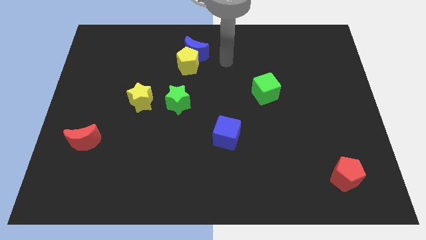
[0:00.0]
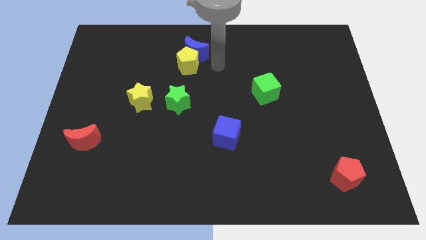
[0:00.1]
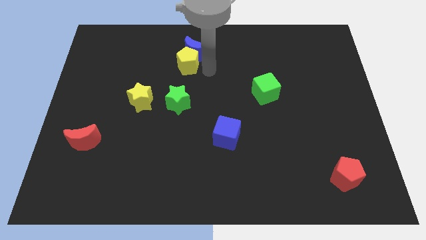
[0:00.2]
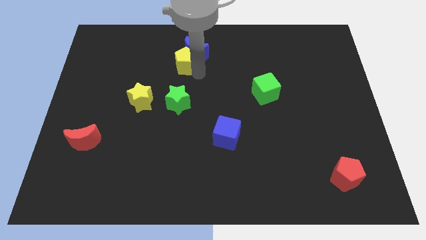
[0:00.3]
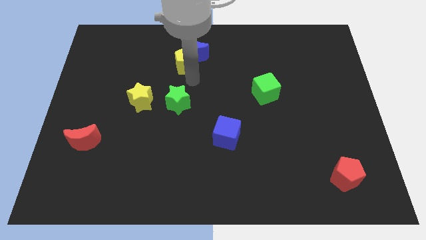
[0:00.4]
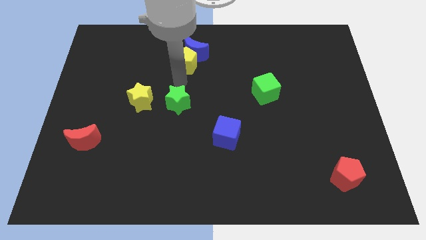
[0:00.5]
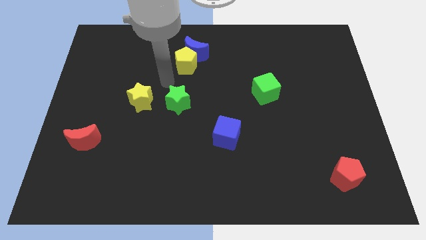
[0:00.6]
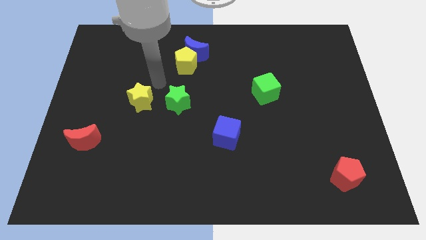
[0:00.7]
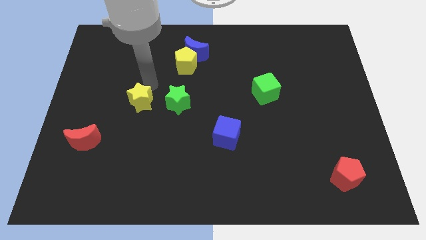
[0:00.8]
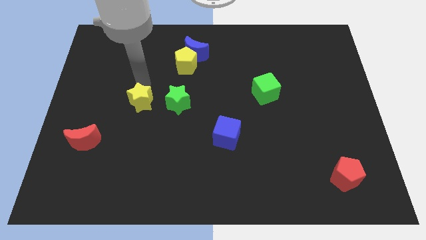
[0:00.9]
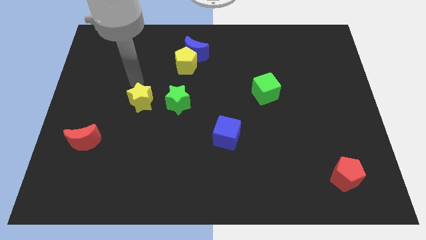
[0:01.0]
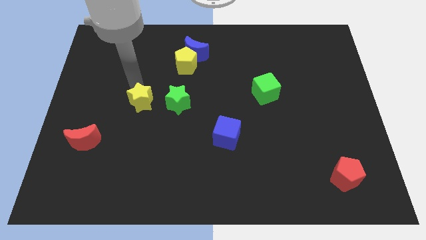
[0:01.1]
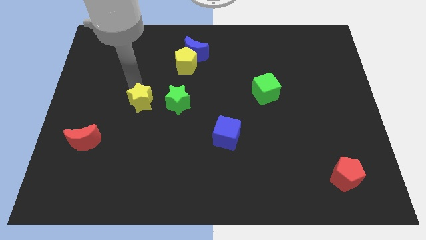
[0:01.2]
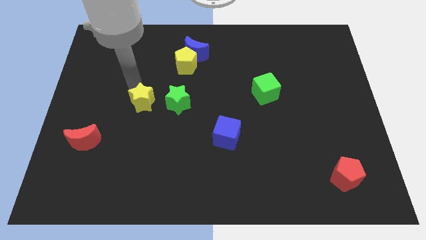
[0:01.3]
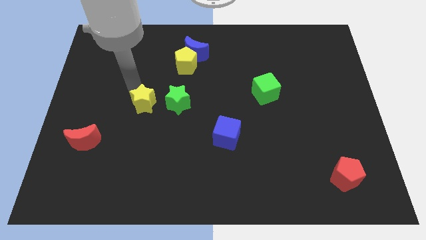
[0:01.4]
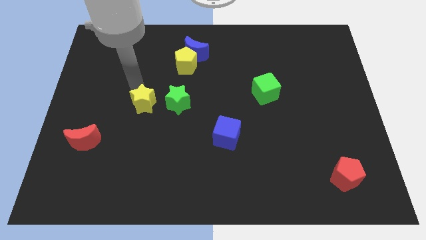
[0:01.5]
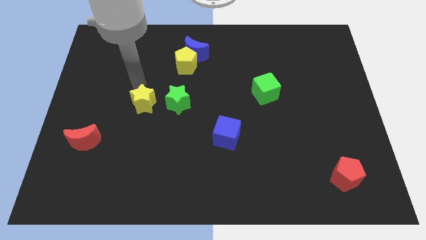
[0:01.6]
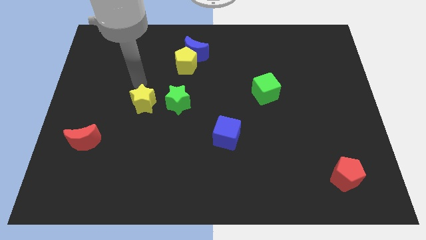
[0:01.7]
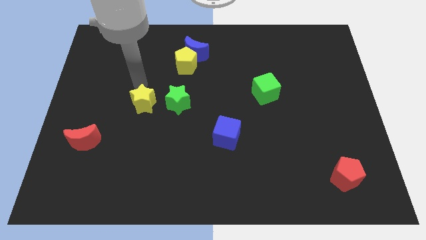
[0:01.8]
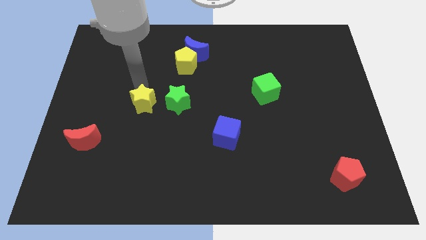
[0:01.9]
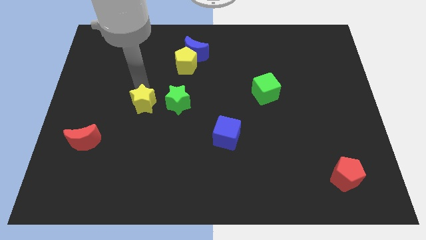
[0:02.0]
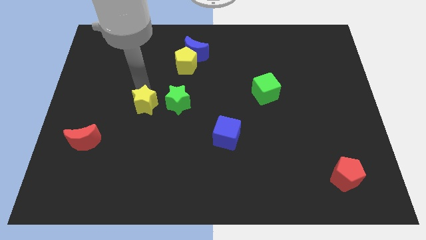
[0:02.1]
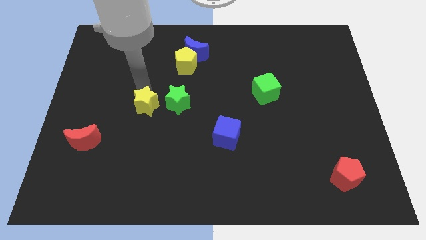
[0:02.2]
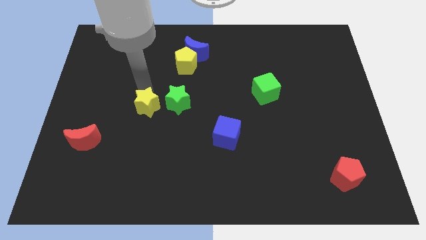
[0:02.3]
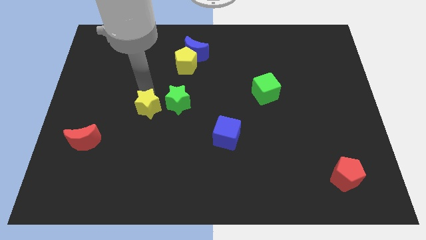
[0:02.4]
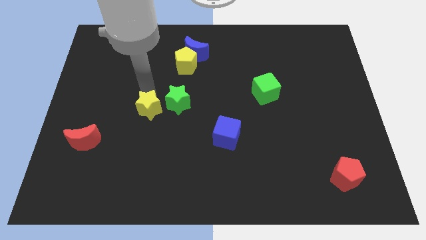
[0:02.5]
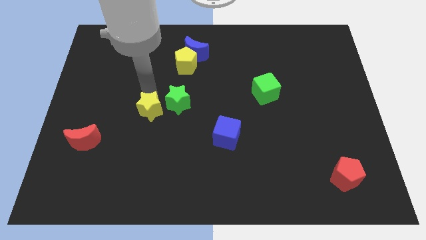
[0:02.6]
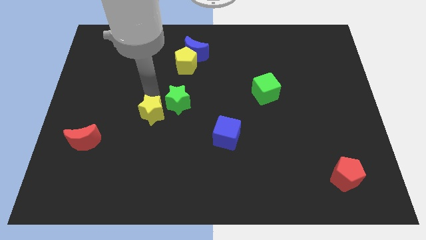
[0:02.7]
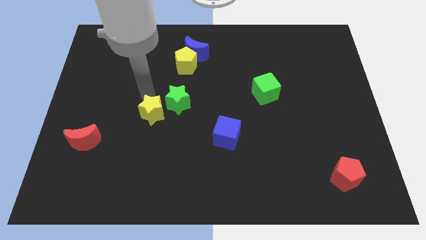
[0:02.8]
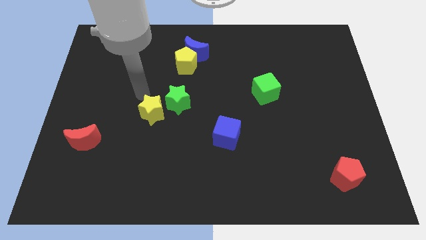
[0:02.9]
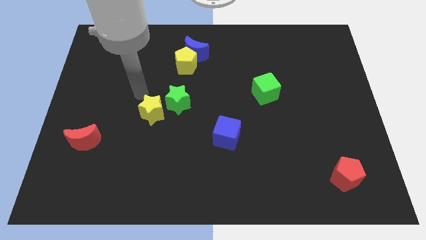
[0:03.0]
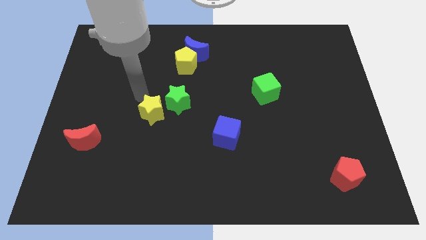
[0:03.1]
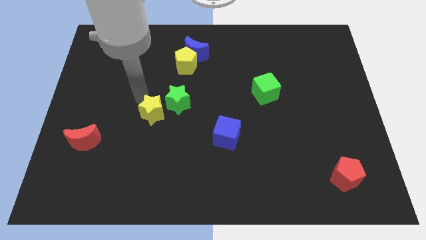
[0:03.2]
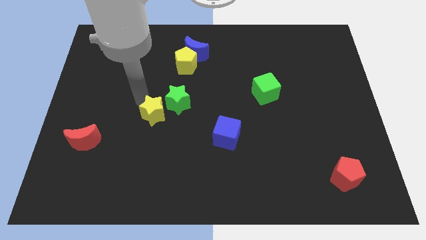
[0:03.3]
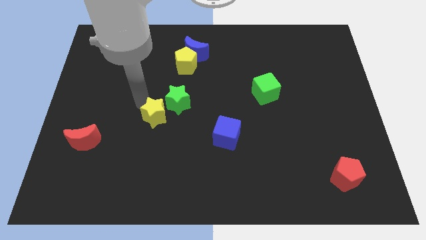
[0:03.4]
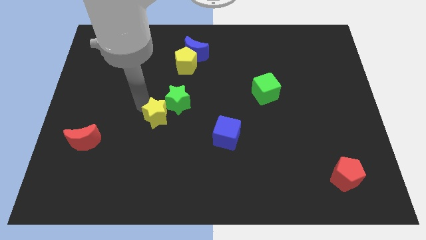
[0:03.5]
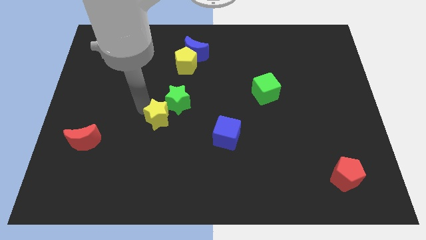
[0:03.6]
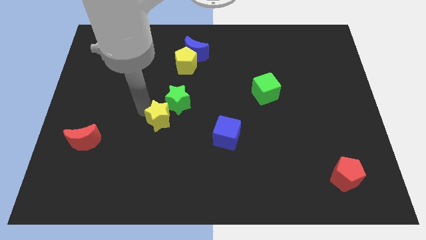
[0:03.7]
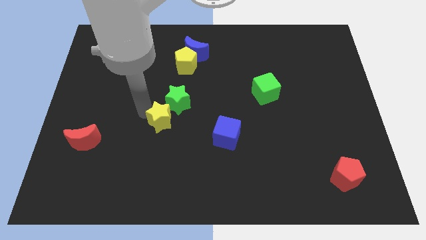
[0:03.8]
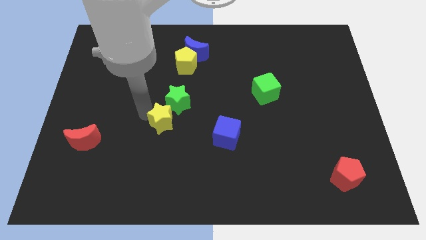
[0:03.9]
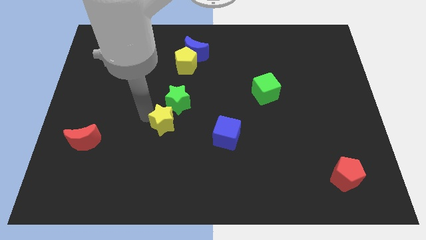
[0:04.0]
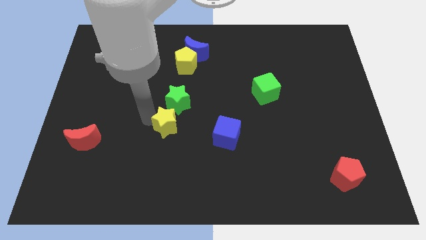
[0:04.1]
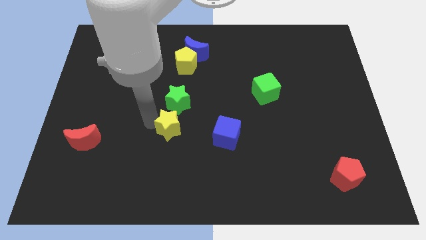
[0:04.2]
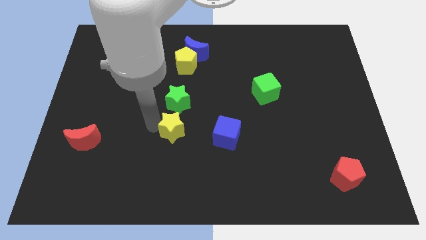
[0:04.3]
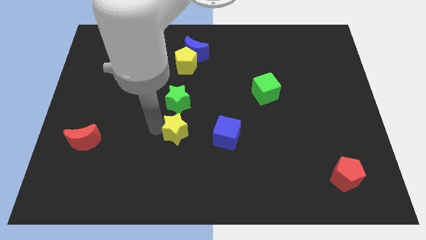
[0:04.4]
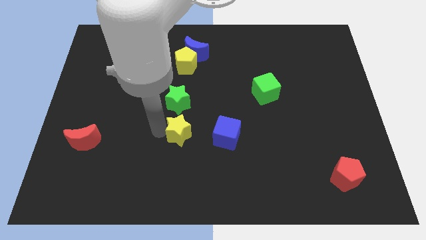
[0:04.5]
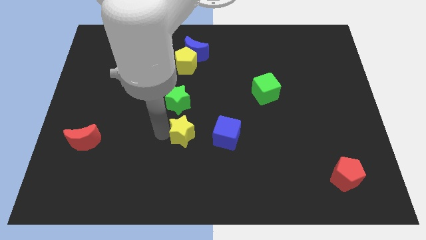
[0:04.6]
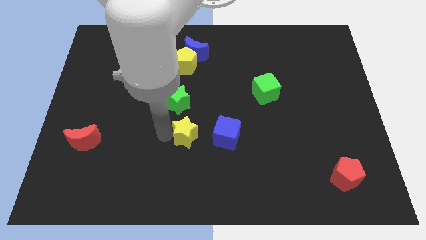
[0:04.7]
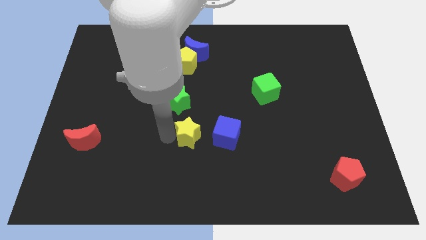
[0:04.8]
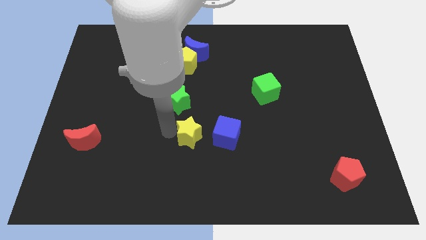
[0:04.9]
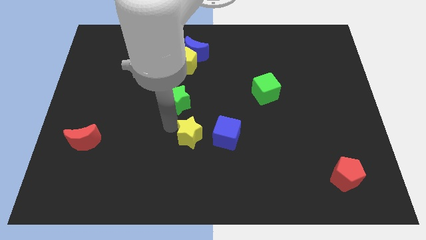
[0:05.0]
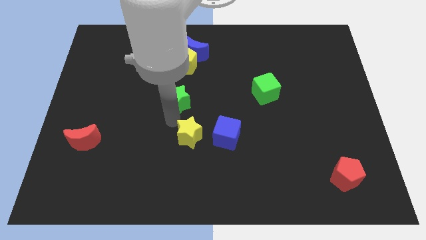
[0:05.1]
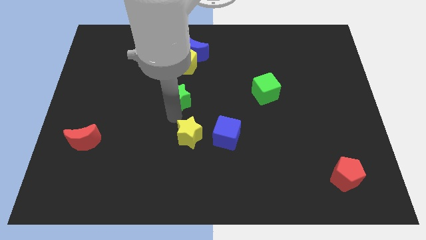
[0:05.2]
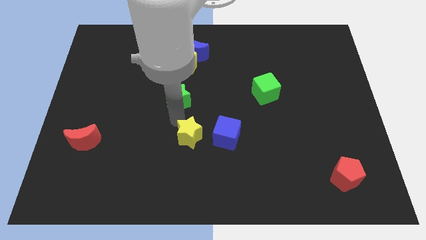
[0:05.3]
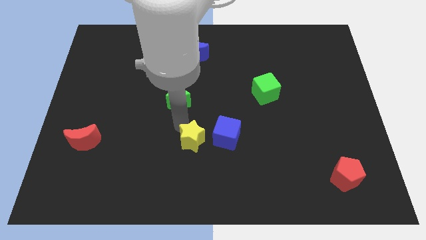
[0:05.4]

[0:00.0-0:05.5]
move the yellow star to the bottom left side of the blue cube

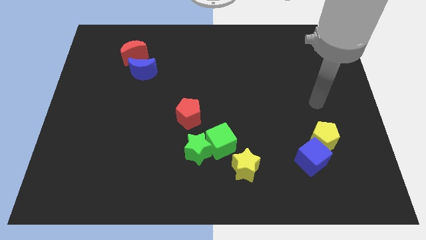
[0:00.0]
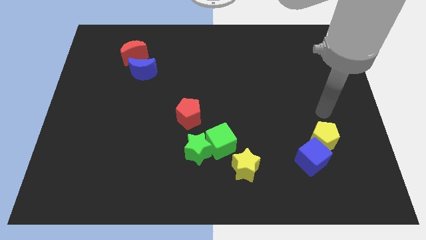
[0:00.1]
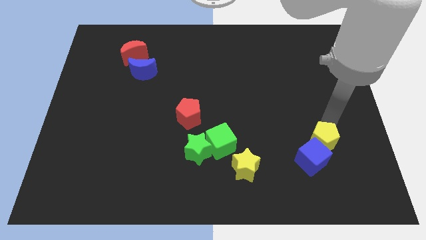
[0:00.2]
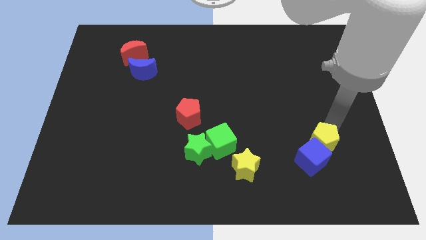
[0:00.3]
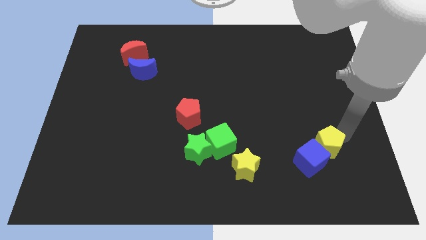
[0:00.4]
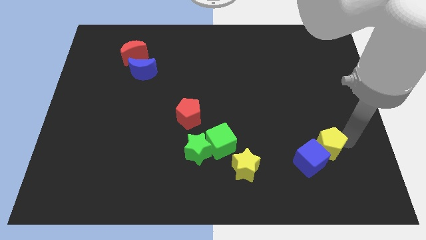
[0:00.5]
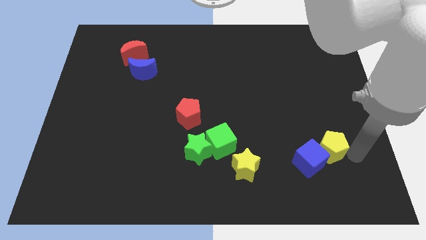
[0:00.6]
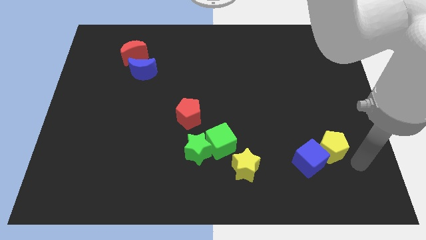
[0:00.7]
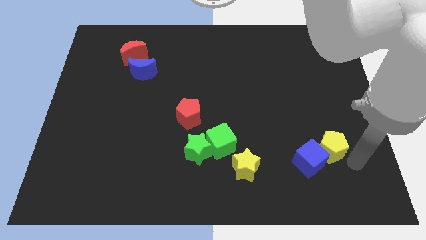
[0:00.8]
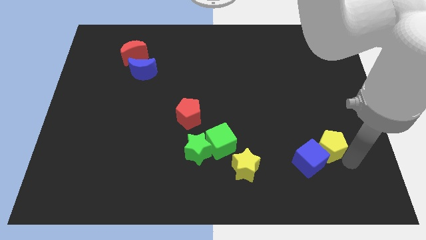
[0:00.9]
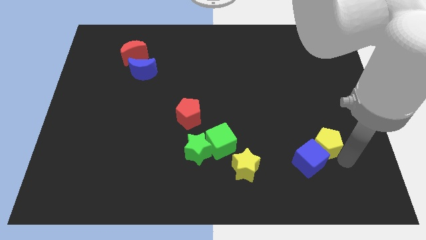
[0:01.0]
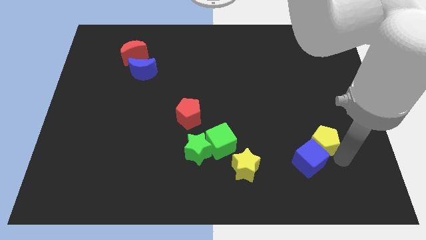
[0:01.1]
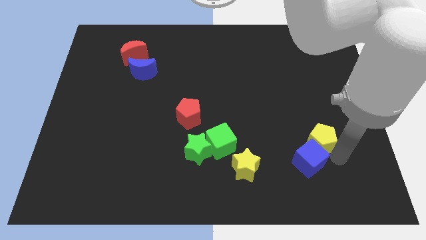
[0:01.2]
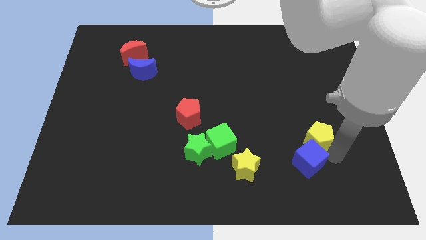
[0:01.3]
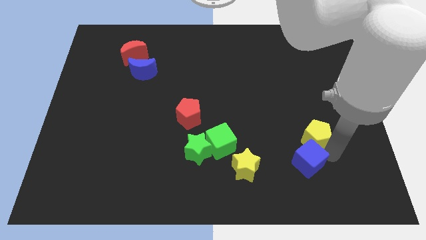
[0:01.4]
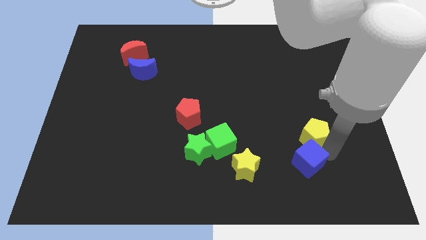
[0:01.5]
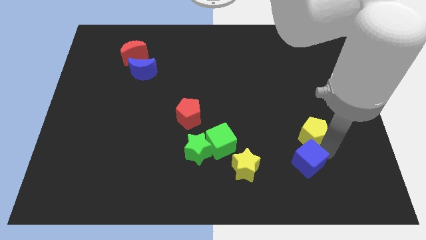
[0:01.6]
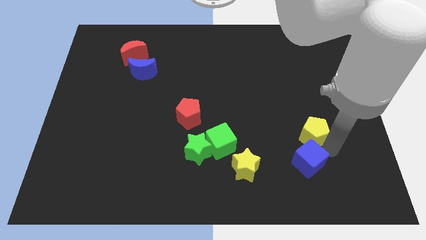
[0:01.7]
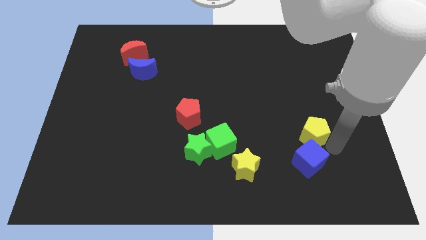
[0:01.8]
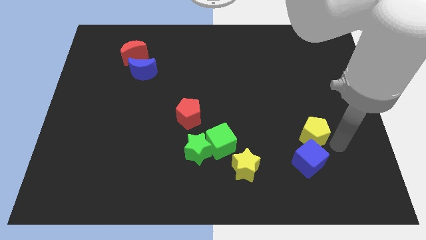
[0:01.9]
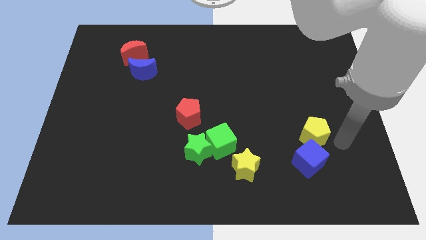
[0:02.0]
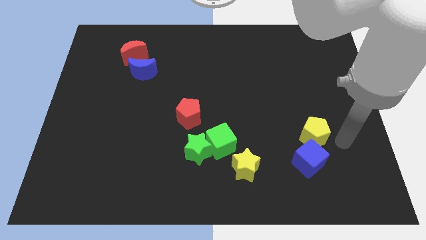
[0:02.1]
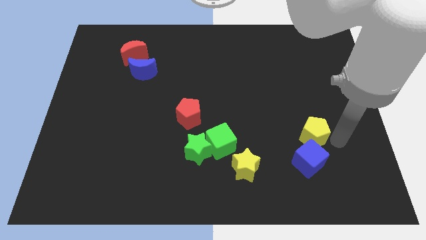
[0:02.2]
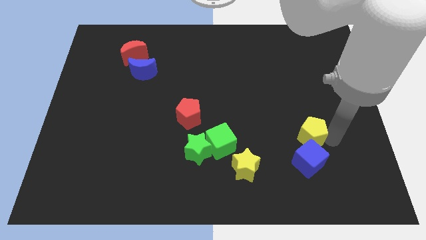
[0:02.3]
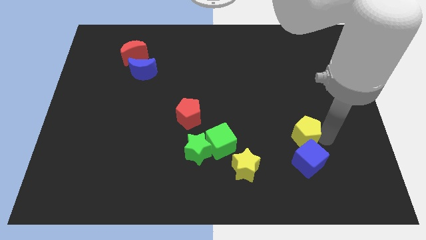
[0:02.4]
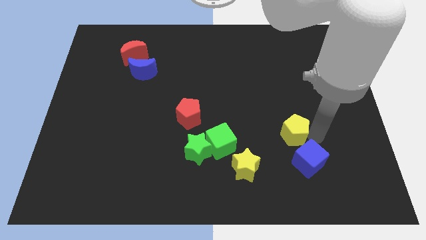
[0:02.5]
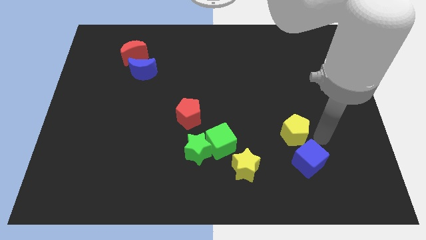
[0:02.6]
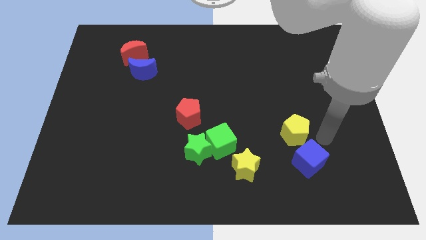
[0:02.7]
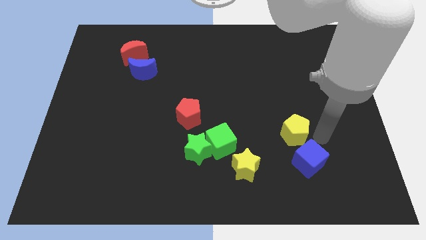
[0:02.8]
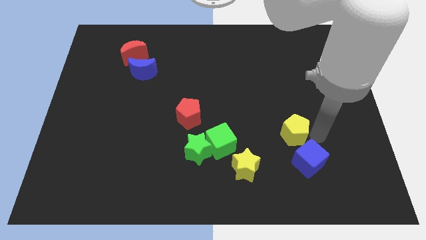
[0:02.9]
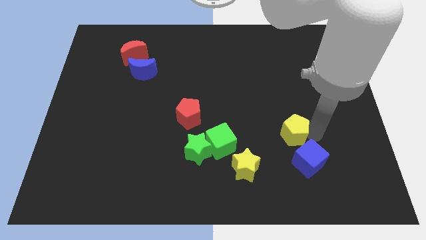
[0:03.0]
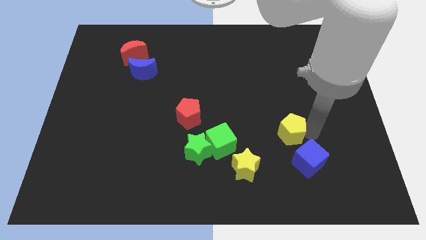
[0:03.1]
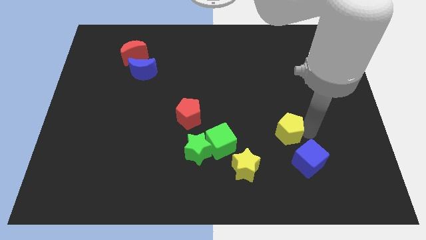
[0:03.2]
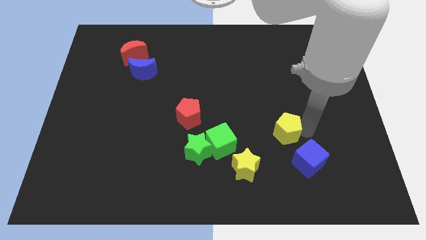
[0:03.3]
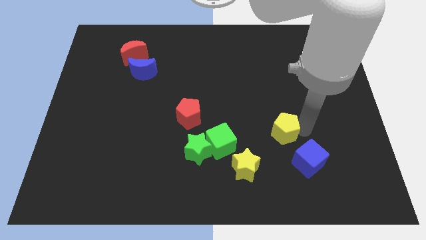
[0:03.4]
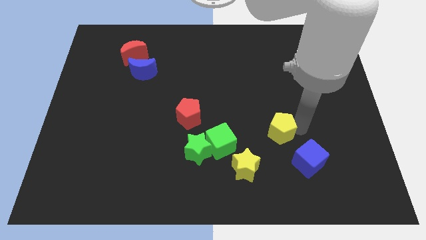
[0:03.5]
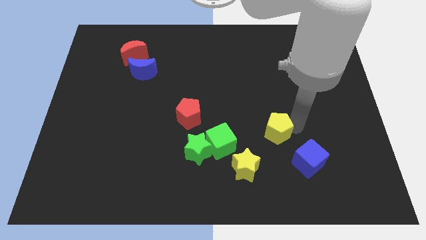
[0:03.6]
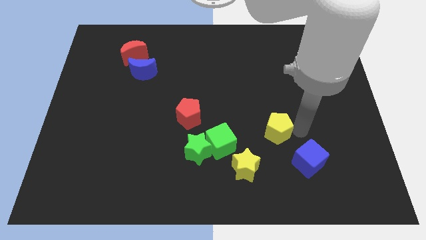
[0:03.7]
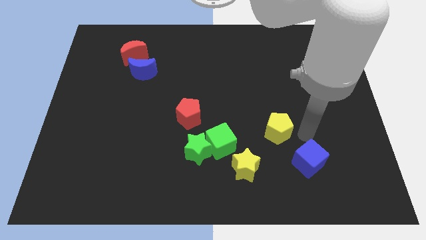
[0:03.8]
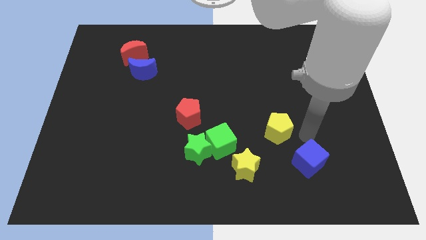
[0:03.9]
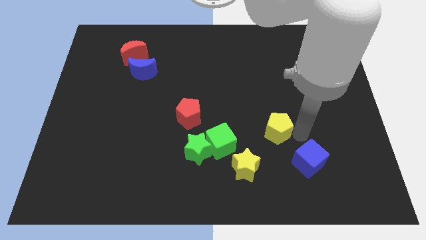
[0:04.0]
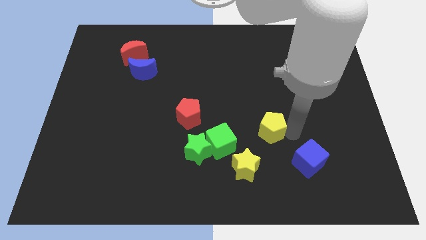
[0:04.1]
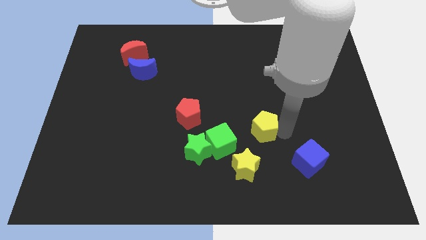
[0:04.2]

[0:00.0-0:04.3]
move the yellow pentagon to the top right side of the green cube
